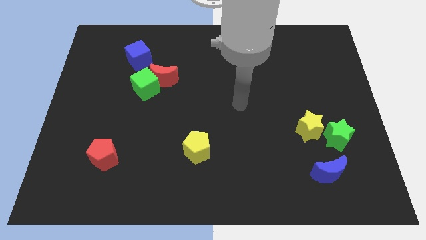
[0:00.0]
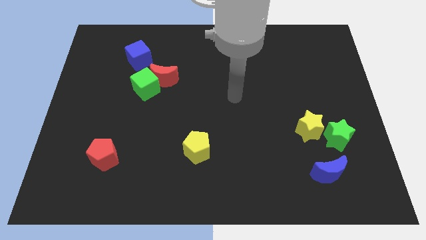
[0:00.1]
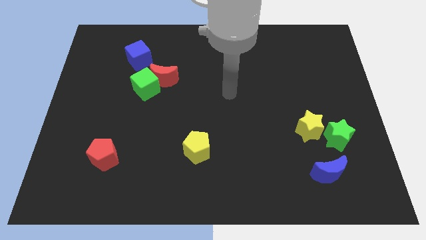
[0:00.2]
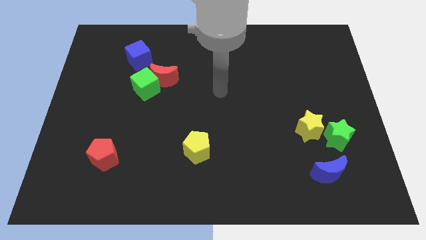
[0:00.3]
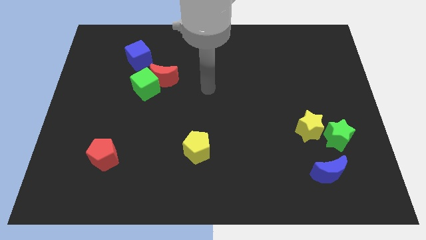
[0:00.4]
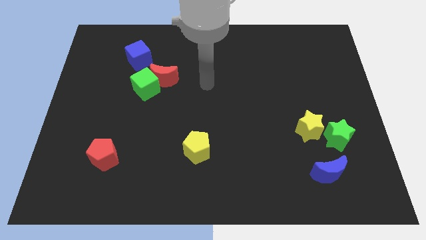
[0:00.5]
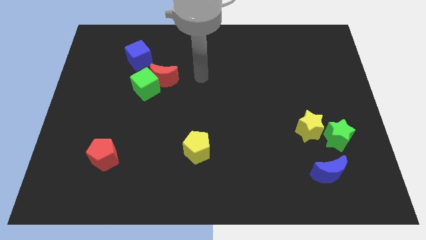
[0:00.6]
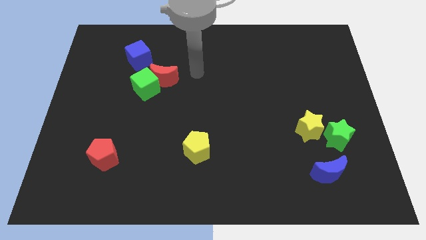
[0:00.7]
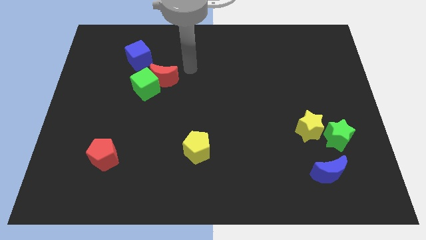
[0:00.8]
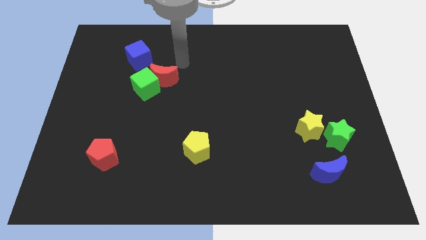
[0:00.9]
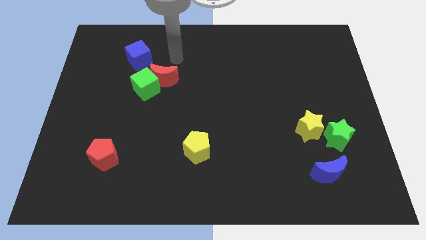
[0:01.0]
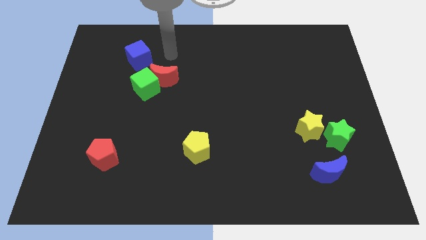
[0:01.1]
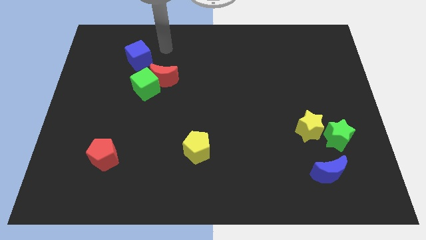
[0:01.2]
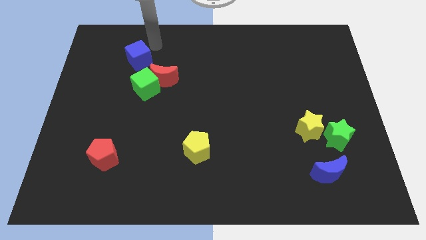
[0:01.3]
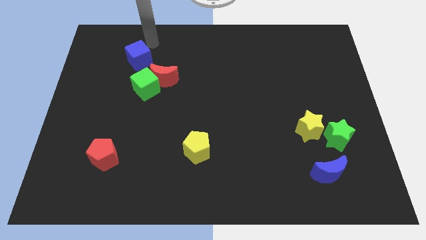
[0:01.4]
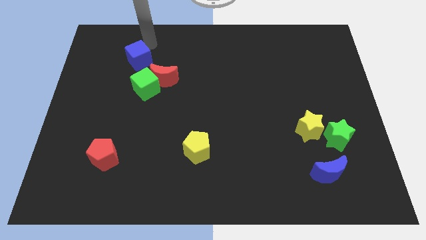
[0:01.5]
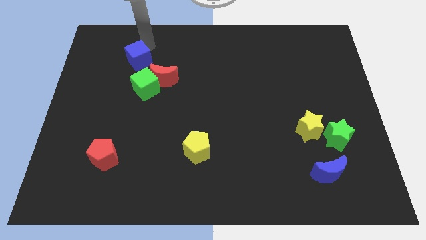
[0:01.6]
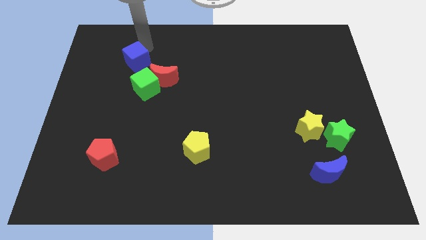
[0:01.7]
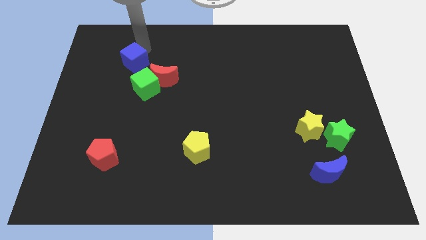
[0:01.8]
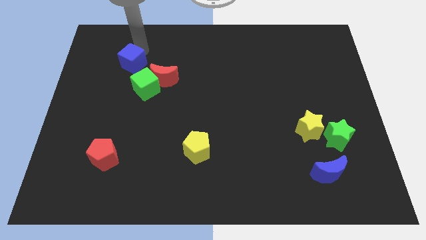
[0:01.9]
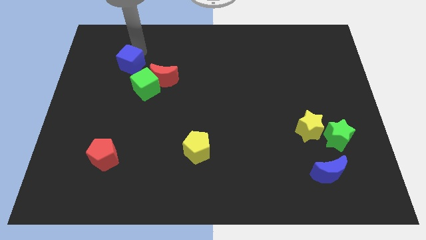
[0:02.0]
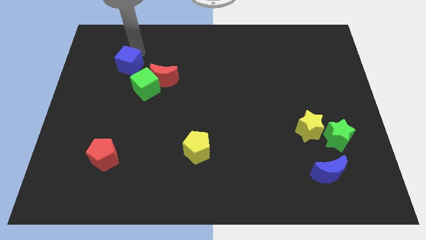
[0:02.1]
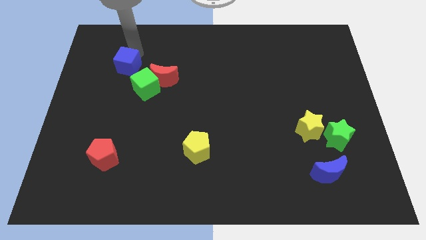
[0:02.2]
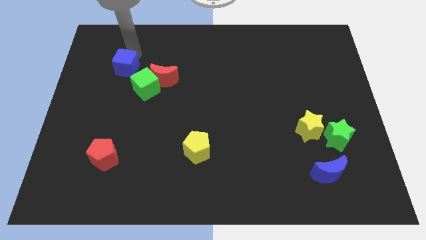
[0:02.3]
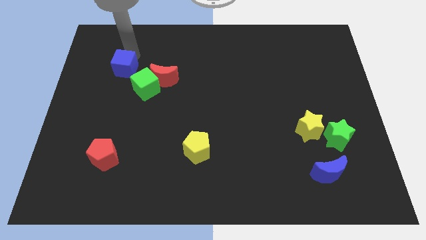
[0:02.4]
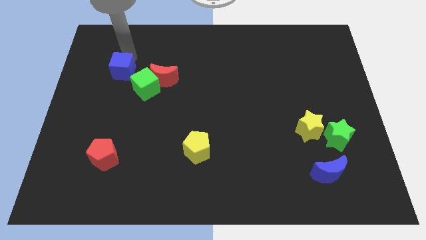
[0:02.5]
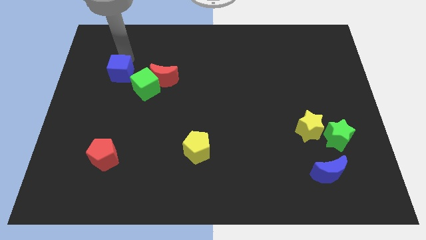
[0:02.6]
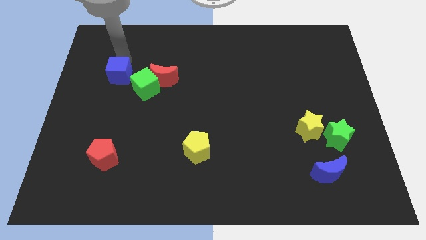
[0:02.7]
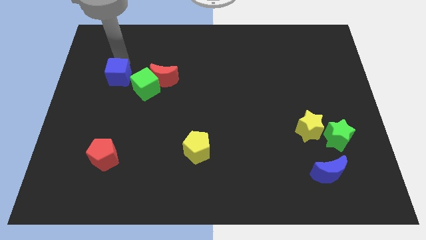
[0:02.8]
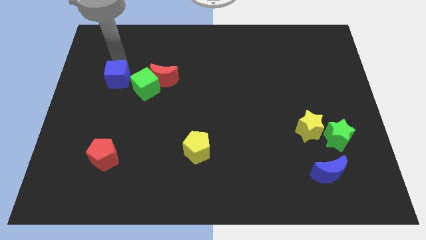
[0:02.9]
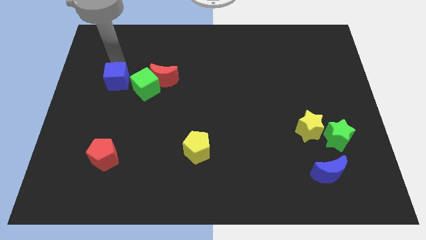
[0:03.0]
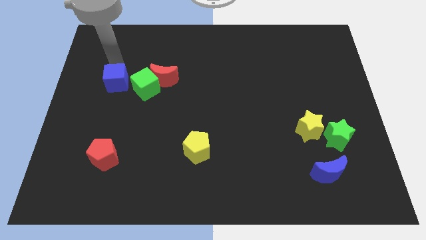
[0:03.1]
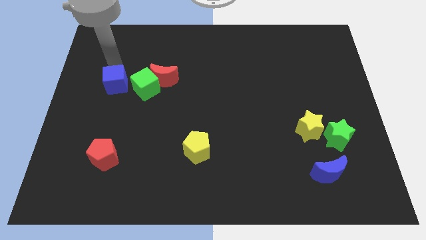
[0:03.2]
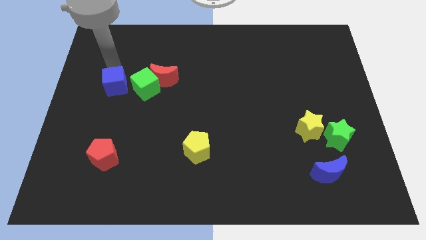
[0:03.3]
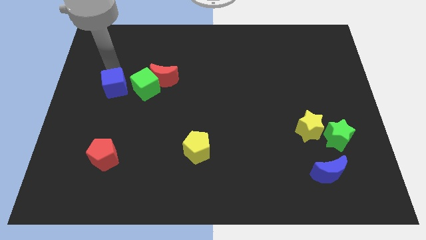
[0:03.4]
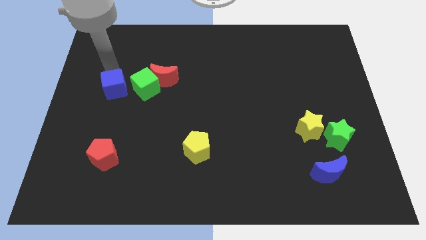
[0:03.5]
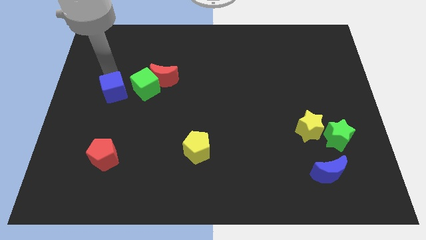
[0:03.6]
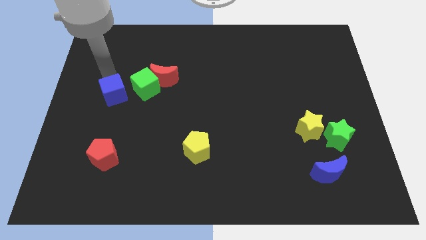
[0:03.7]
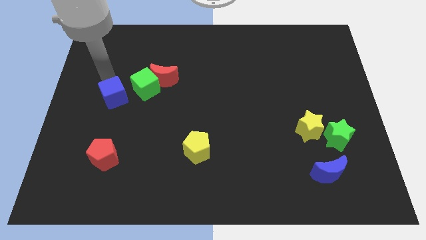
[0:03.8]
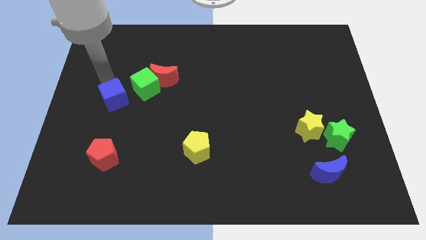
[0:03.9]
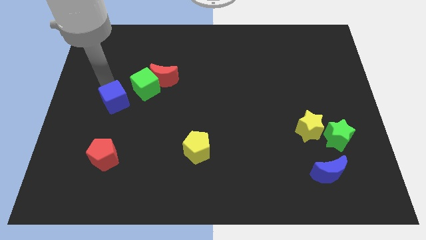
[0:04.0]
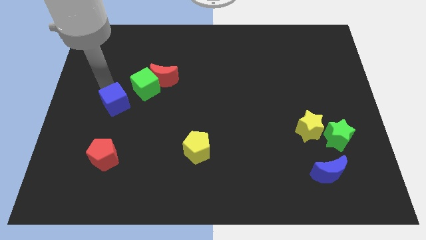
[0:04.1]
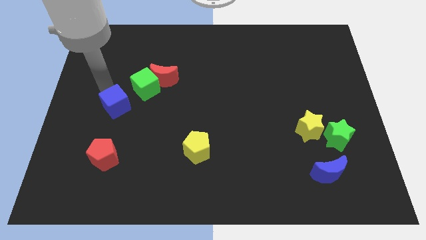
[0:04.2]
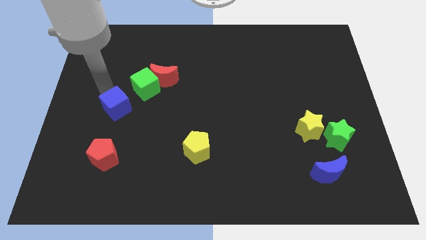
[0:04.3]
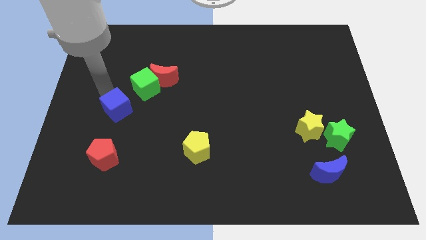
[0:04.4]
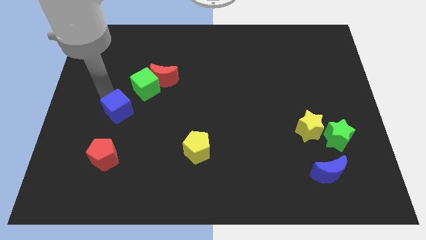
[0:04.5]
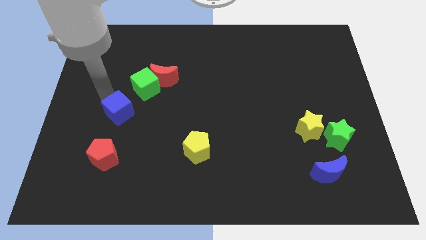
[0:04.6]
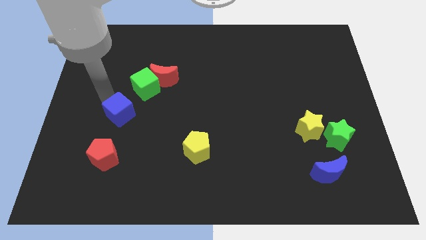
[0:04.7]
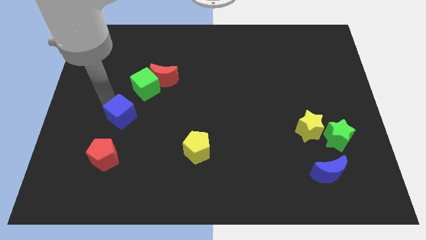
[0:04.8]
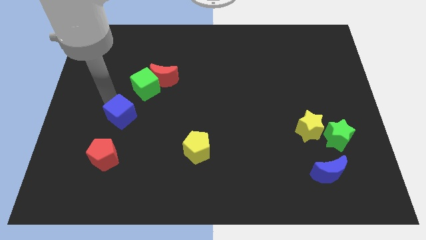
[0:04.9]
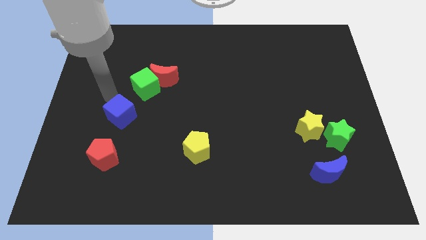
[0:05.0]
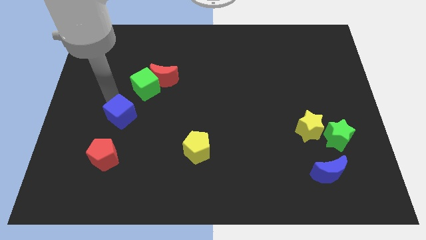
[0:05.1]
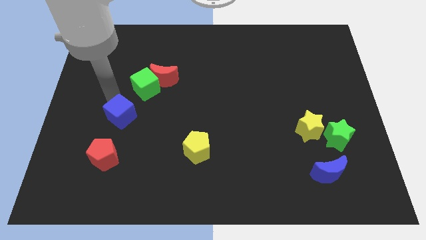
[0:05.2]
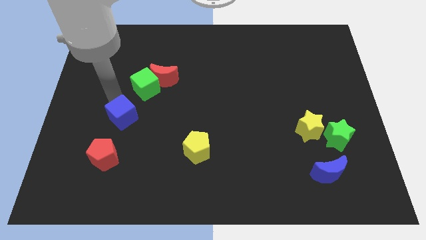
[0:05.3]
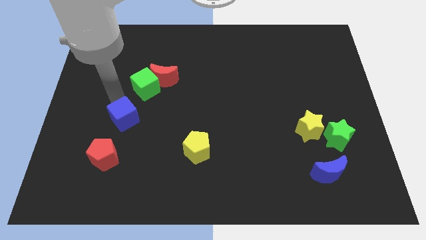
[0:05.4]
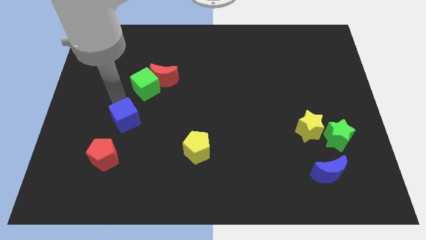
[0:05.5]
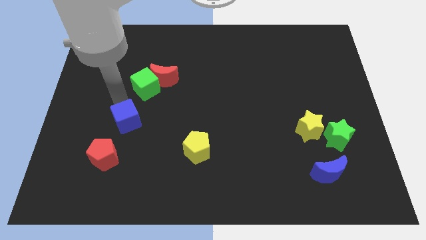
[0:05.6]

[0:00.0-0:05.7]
push the blue cube downwards

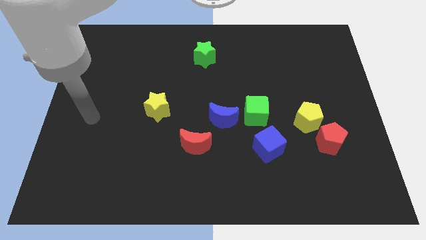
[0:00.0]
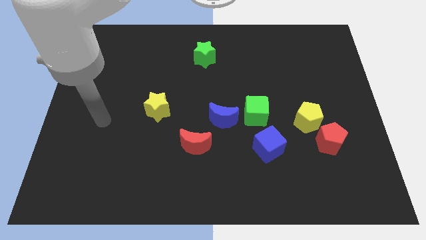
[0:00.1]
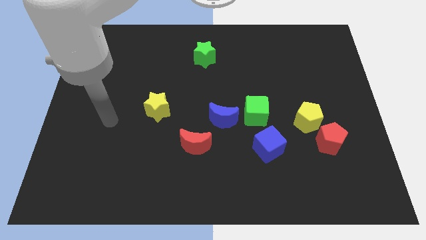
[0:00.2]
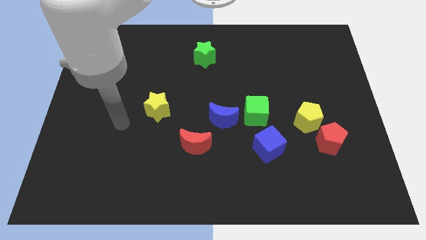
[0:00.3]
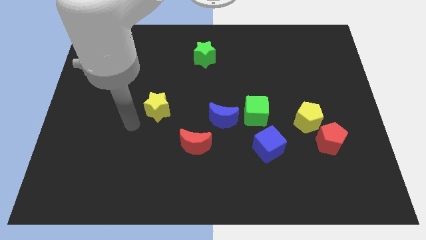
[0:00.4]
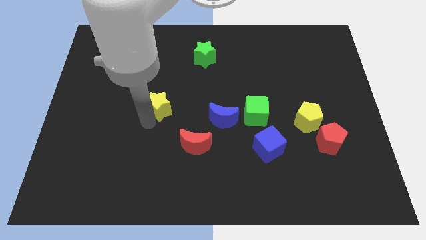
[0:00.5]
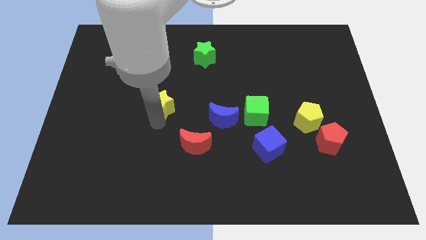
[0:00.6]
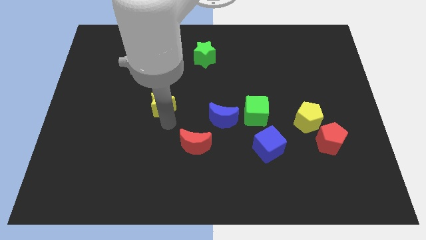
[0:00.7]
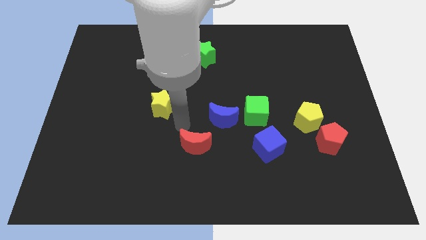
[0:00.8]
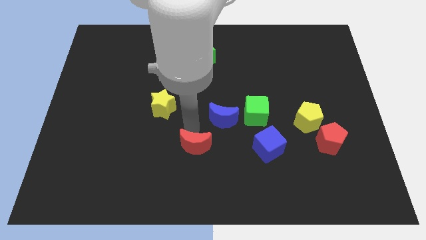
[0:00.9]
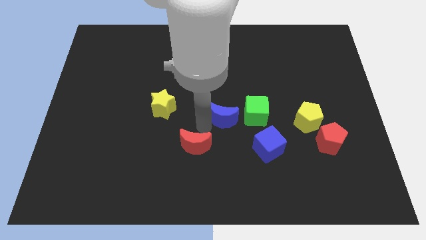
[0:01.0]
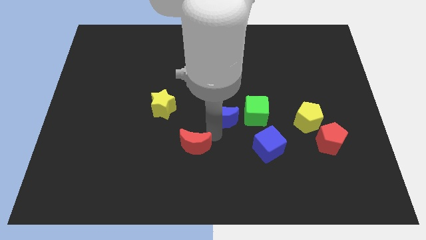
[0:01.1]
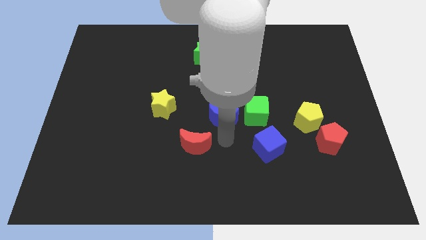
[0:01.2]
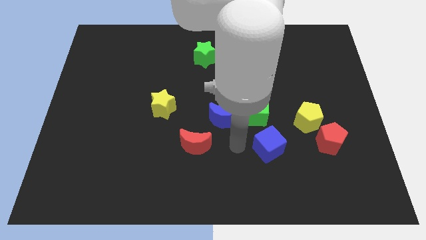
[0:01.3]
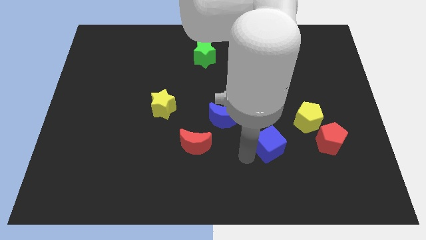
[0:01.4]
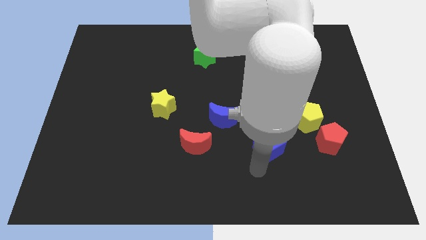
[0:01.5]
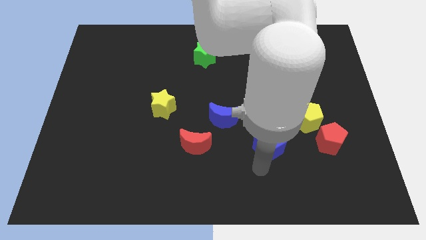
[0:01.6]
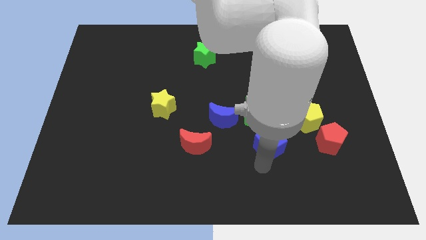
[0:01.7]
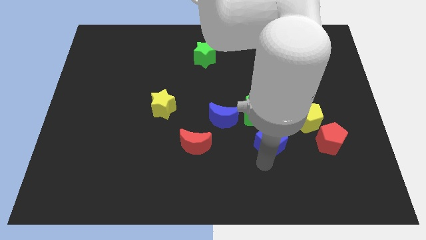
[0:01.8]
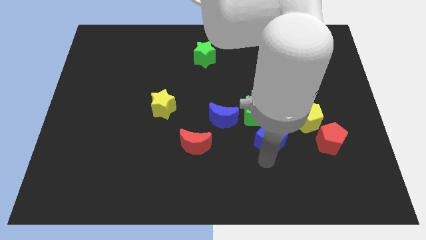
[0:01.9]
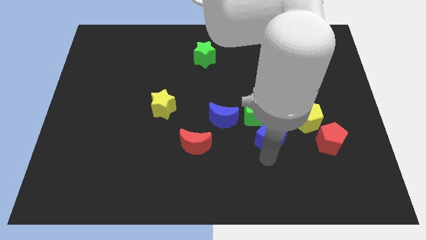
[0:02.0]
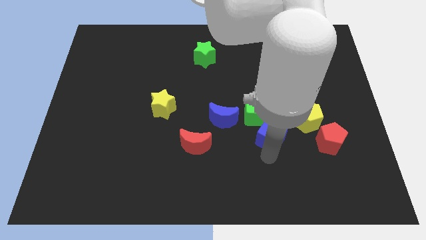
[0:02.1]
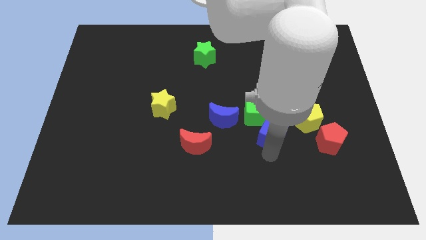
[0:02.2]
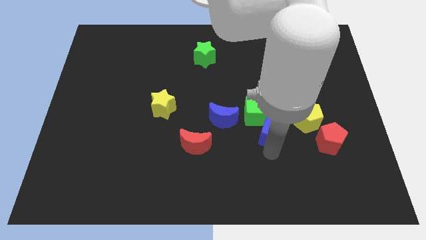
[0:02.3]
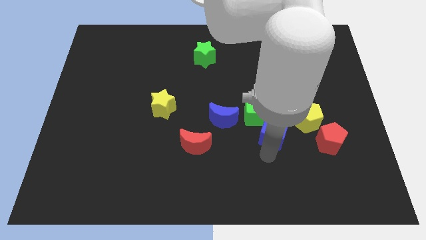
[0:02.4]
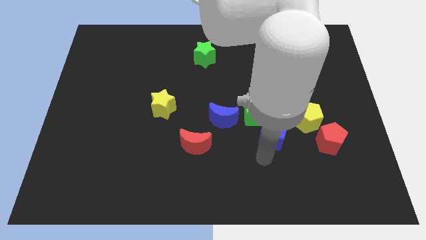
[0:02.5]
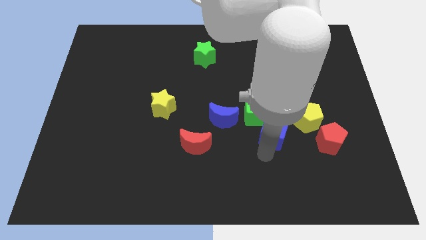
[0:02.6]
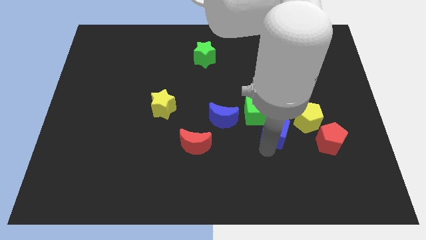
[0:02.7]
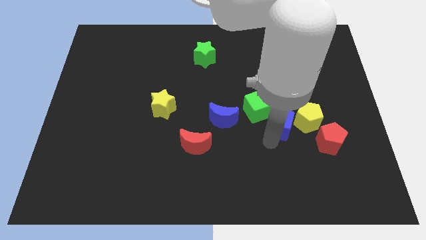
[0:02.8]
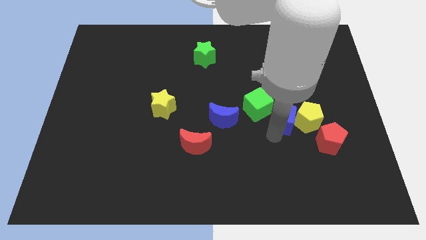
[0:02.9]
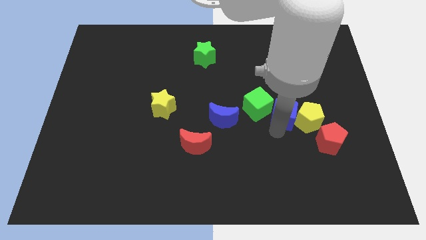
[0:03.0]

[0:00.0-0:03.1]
push the blue cube a bit up
